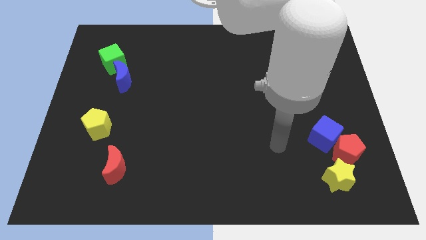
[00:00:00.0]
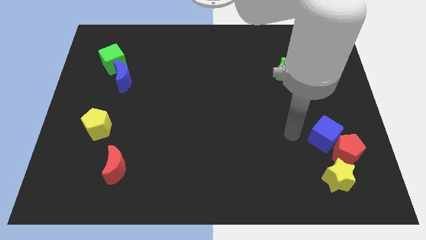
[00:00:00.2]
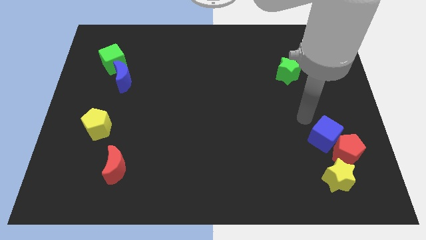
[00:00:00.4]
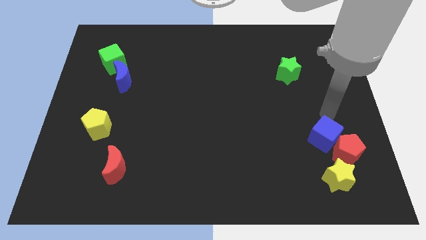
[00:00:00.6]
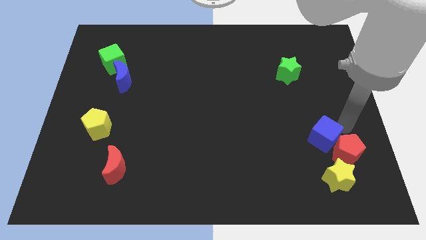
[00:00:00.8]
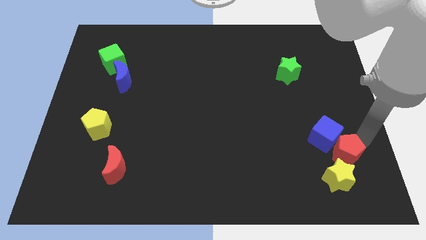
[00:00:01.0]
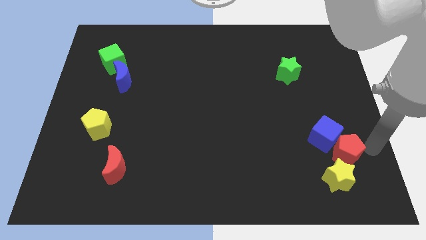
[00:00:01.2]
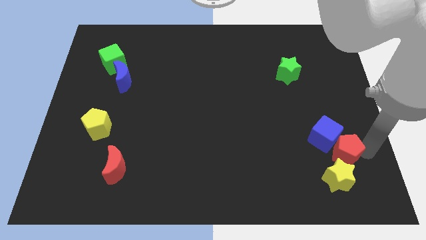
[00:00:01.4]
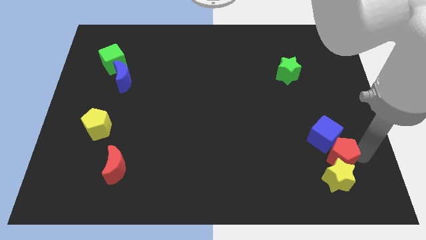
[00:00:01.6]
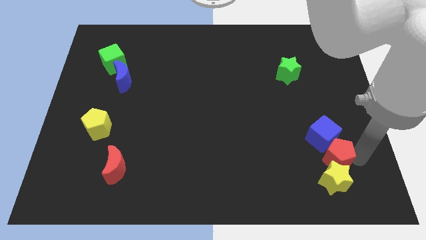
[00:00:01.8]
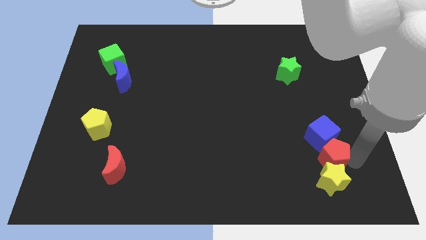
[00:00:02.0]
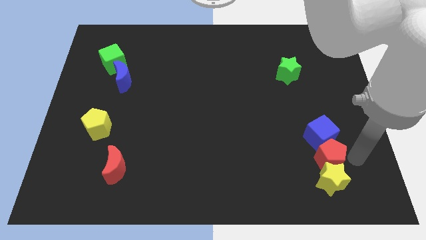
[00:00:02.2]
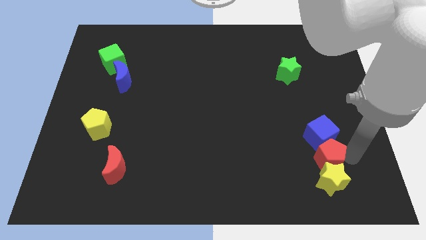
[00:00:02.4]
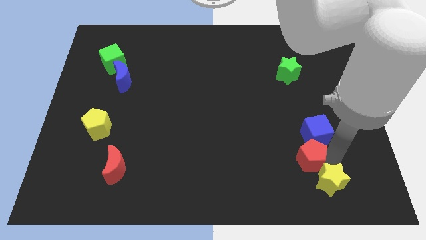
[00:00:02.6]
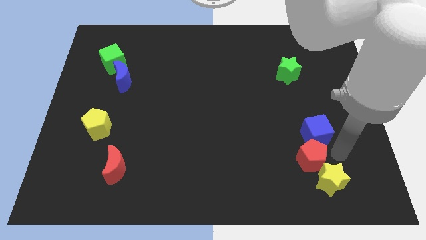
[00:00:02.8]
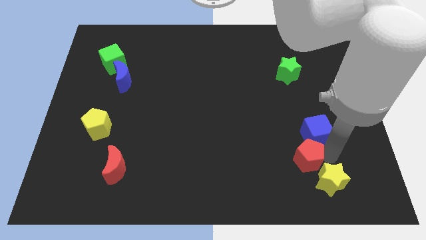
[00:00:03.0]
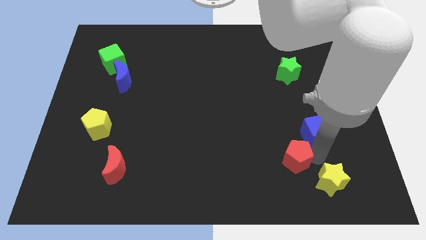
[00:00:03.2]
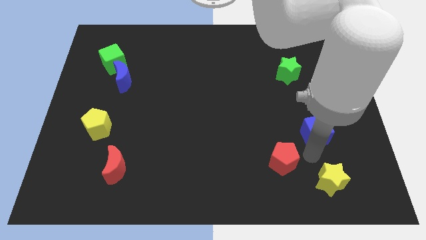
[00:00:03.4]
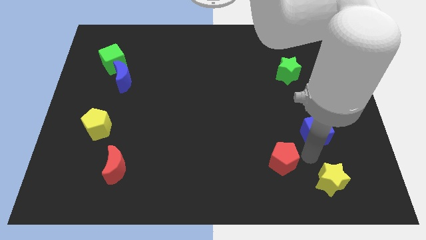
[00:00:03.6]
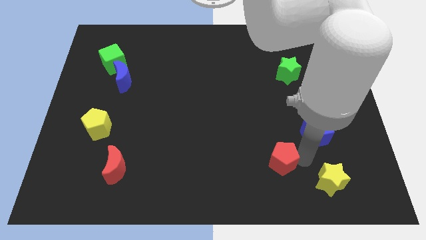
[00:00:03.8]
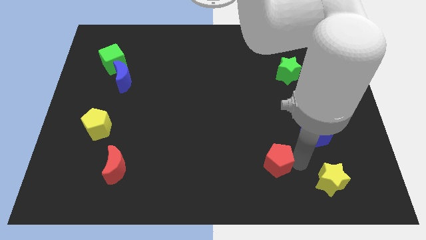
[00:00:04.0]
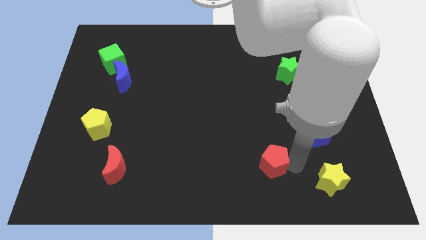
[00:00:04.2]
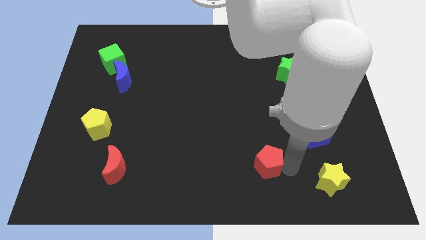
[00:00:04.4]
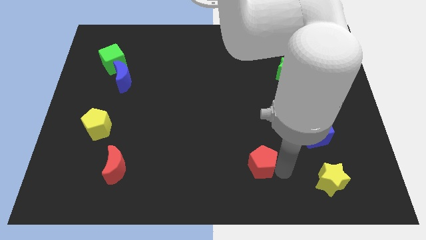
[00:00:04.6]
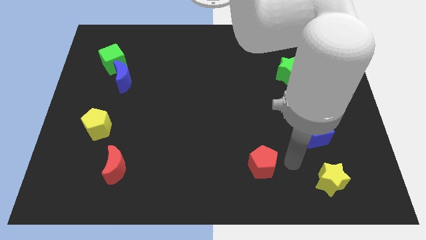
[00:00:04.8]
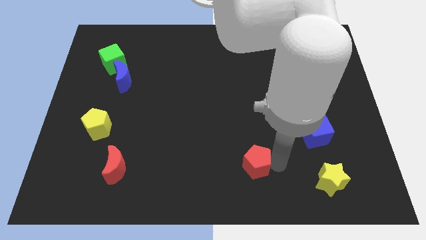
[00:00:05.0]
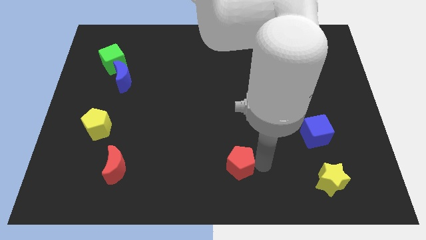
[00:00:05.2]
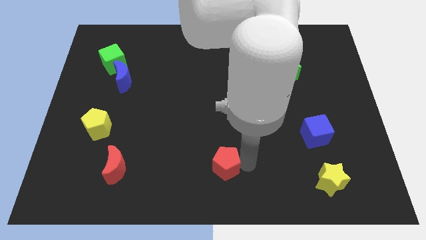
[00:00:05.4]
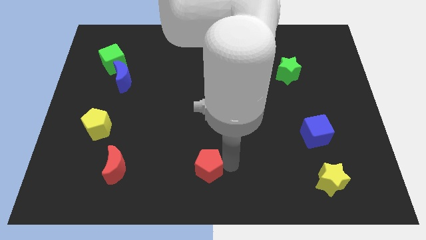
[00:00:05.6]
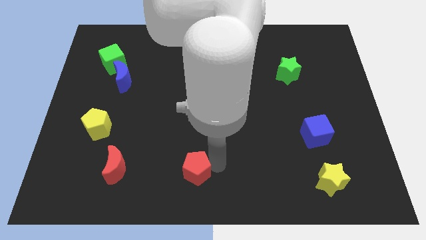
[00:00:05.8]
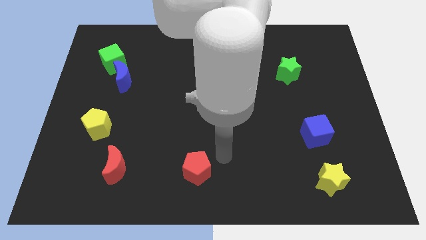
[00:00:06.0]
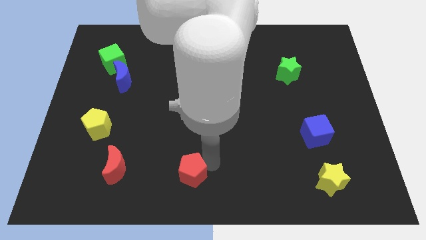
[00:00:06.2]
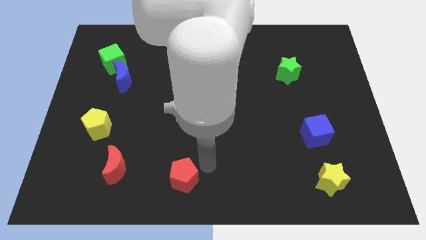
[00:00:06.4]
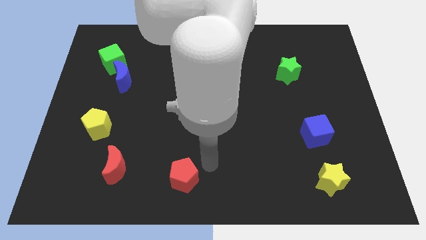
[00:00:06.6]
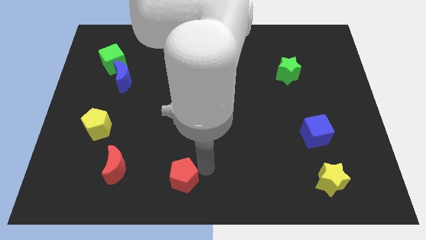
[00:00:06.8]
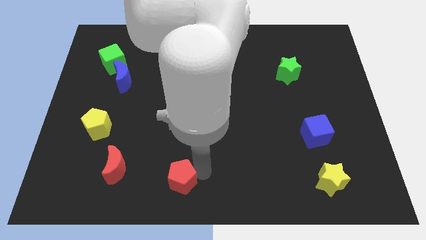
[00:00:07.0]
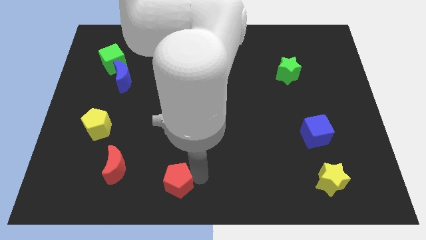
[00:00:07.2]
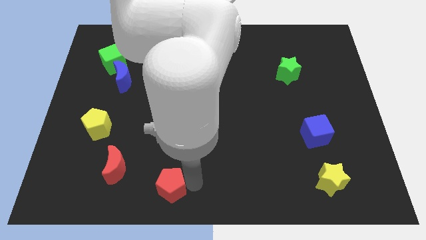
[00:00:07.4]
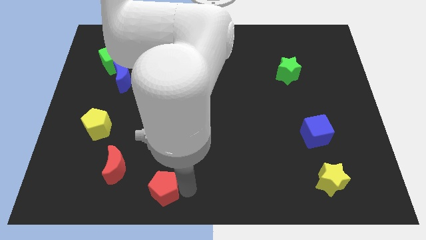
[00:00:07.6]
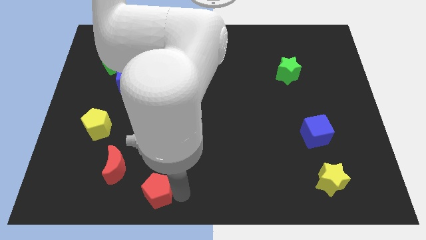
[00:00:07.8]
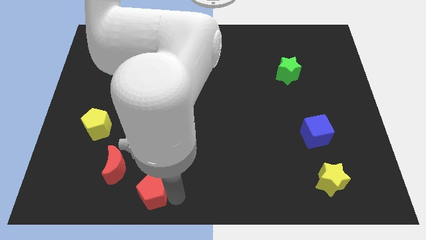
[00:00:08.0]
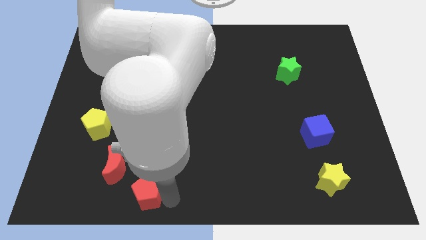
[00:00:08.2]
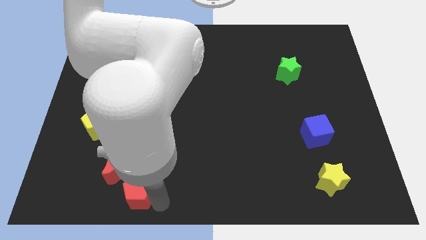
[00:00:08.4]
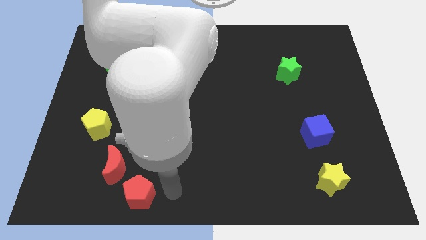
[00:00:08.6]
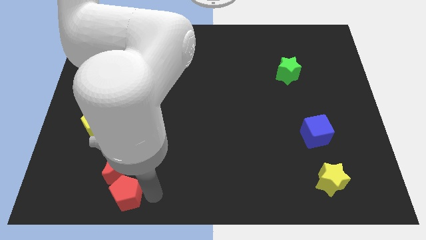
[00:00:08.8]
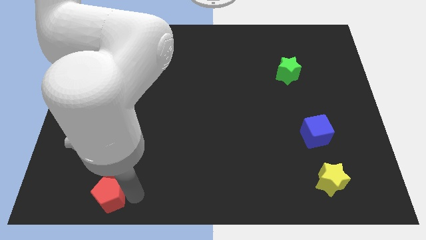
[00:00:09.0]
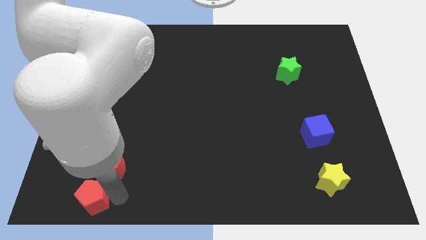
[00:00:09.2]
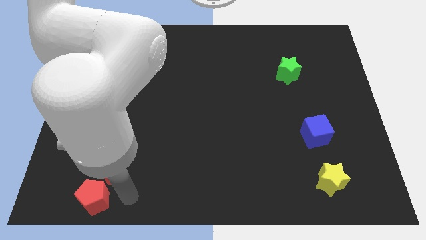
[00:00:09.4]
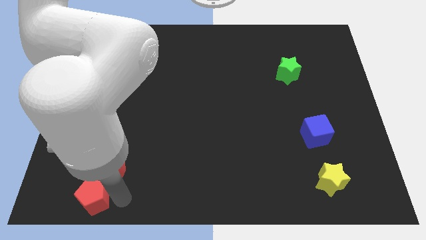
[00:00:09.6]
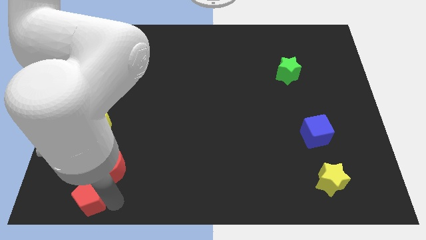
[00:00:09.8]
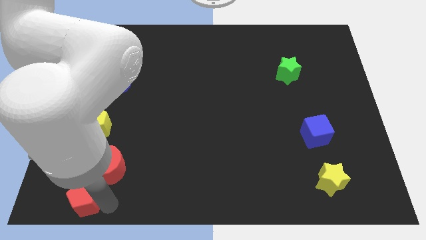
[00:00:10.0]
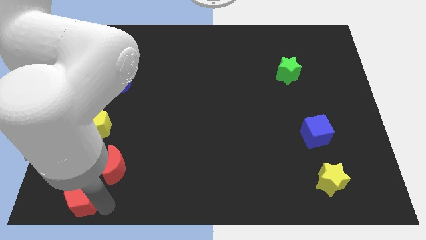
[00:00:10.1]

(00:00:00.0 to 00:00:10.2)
push the red pentagon to the bottom left of the board

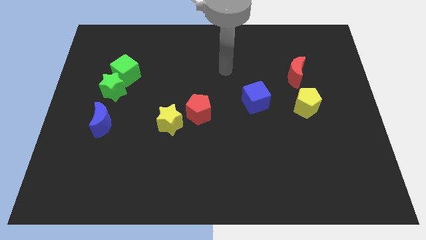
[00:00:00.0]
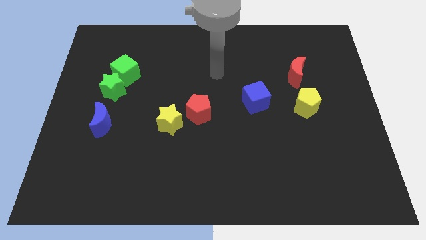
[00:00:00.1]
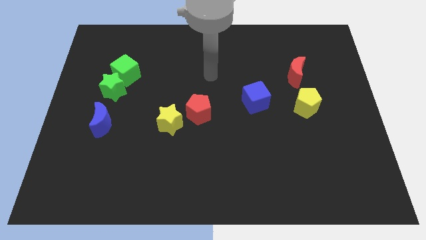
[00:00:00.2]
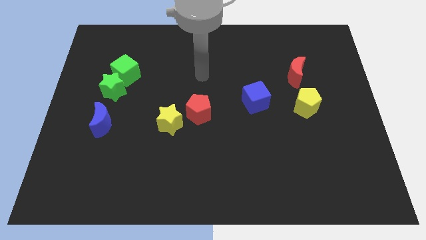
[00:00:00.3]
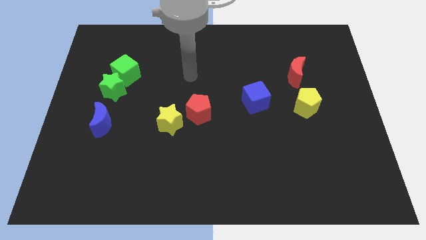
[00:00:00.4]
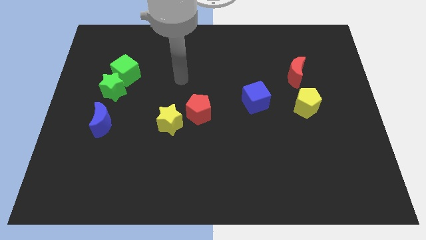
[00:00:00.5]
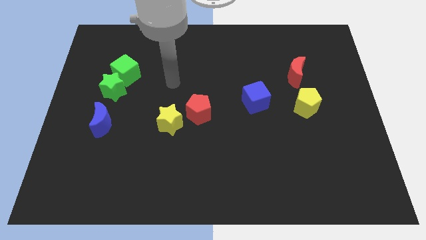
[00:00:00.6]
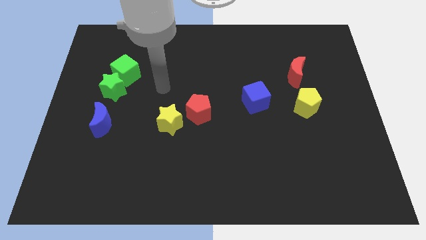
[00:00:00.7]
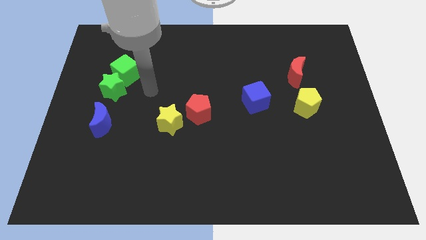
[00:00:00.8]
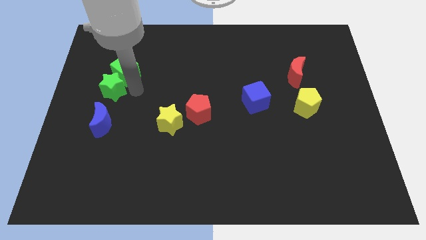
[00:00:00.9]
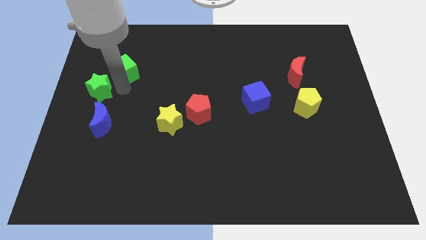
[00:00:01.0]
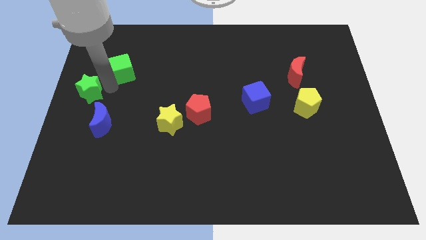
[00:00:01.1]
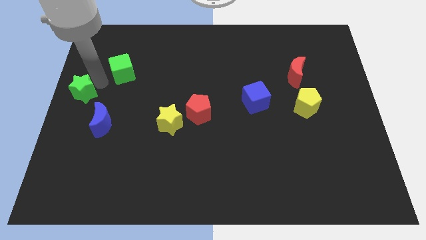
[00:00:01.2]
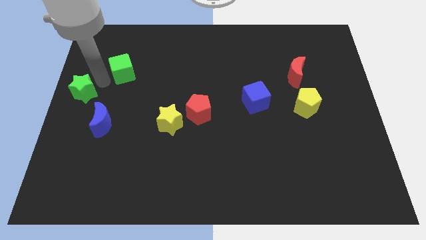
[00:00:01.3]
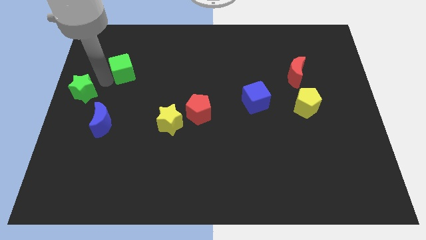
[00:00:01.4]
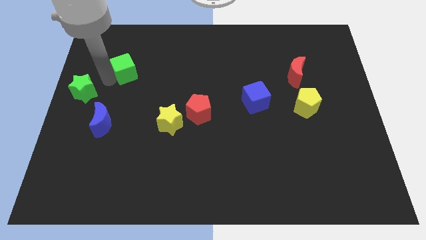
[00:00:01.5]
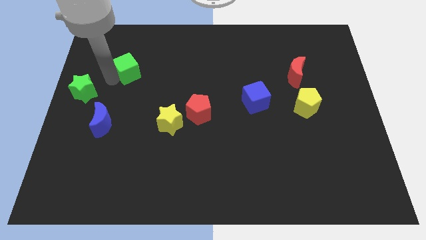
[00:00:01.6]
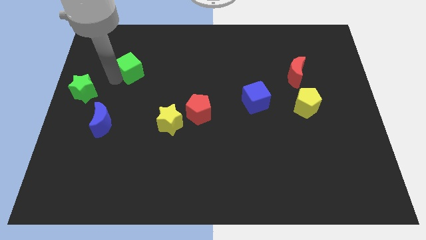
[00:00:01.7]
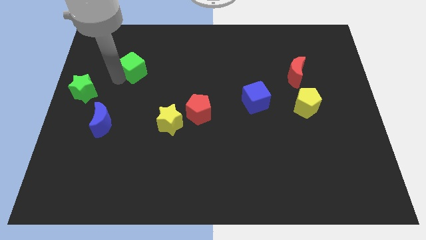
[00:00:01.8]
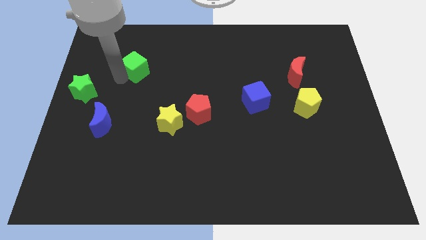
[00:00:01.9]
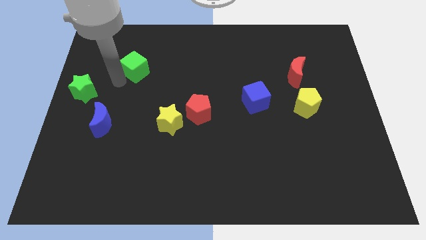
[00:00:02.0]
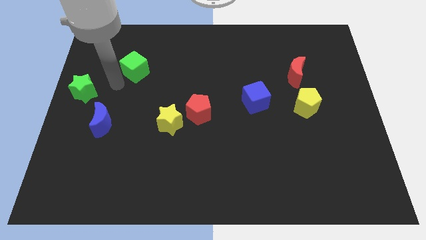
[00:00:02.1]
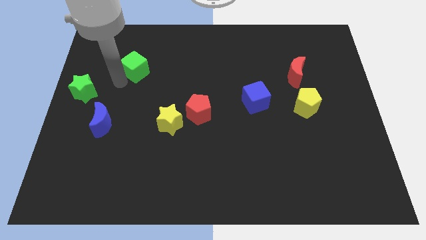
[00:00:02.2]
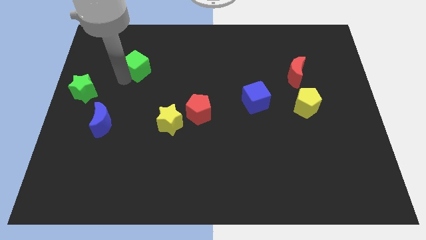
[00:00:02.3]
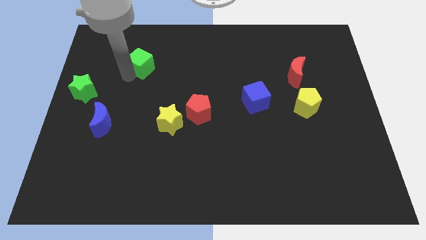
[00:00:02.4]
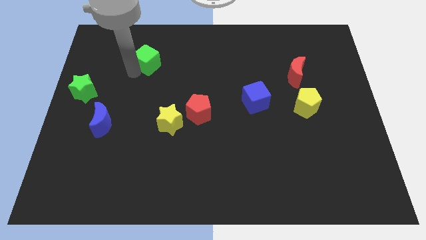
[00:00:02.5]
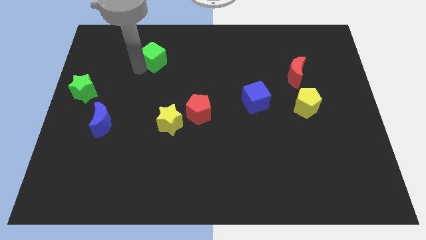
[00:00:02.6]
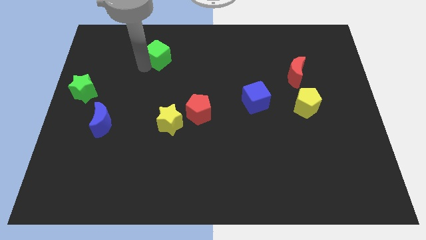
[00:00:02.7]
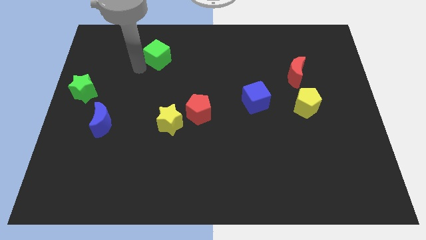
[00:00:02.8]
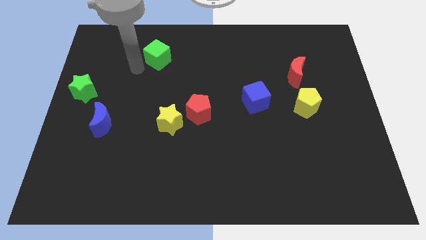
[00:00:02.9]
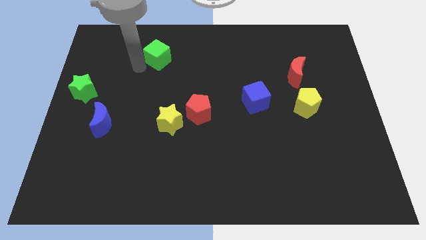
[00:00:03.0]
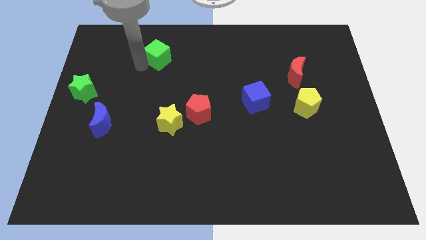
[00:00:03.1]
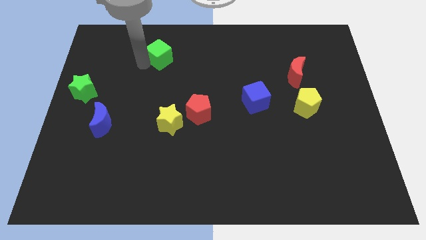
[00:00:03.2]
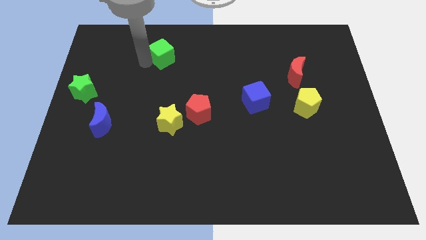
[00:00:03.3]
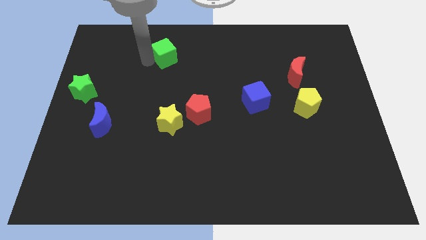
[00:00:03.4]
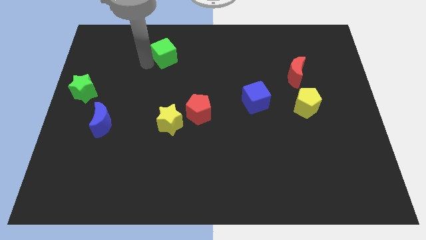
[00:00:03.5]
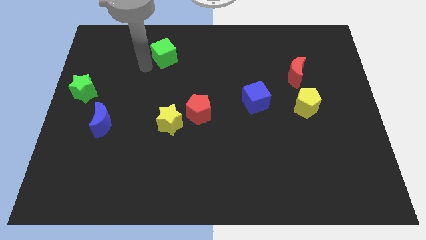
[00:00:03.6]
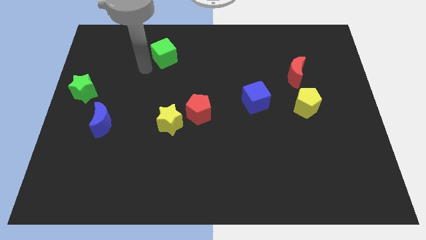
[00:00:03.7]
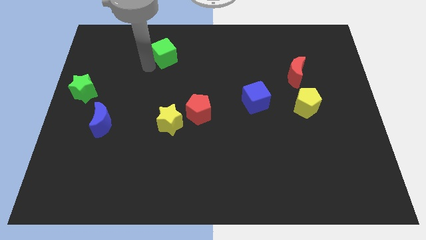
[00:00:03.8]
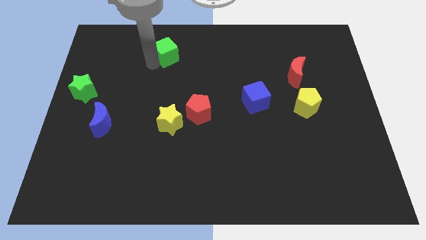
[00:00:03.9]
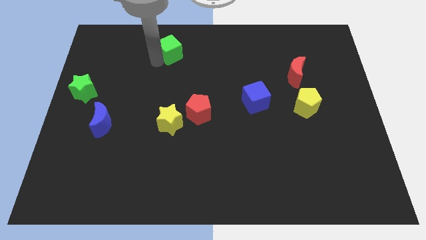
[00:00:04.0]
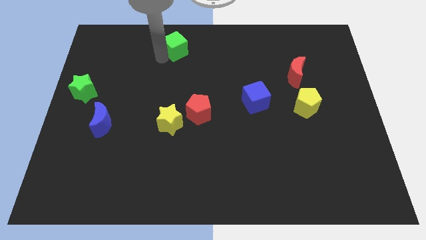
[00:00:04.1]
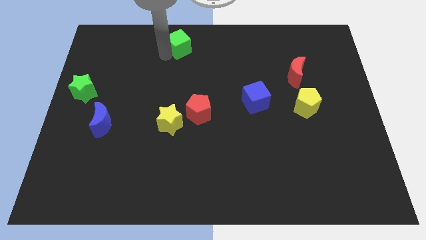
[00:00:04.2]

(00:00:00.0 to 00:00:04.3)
put the green cube to the top side
